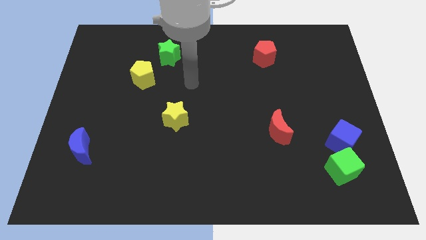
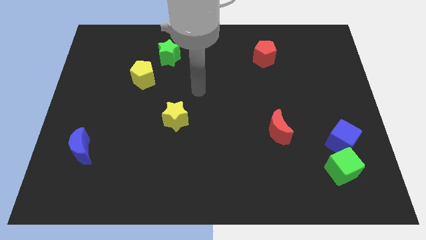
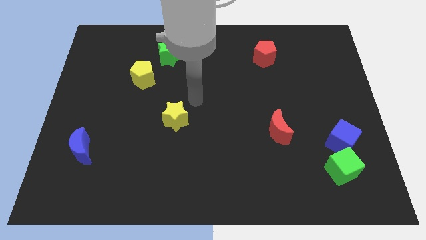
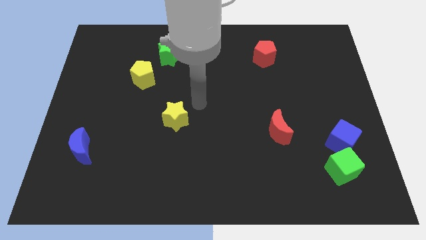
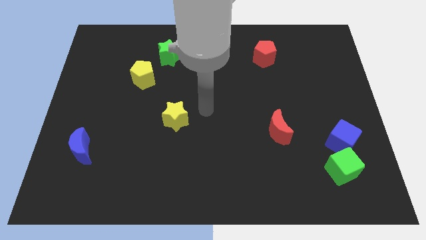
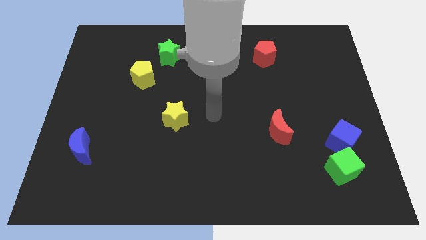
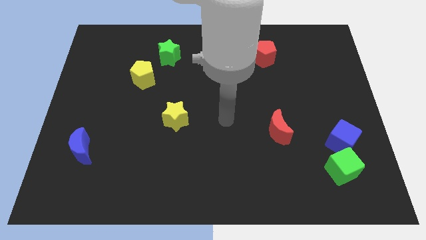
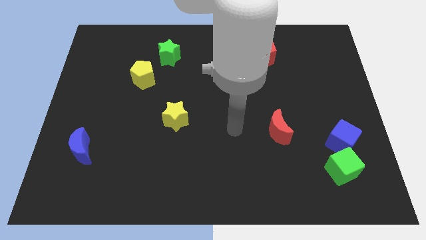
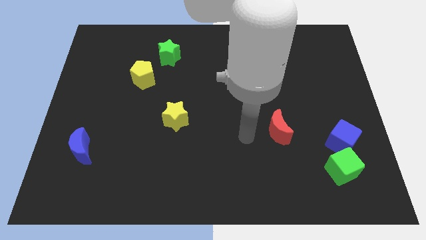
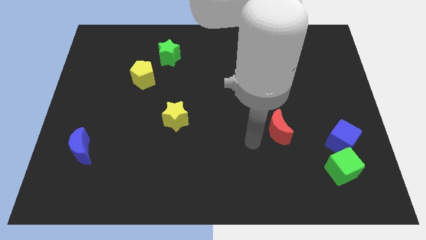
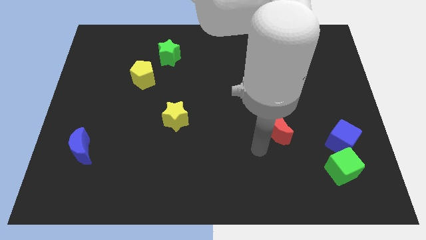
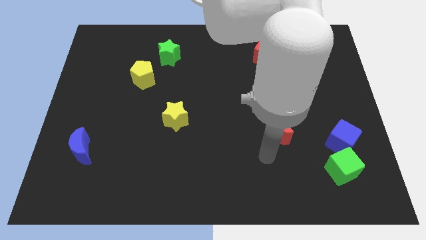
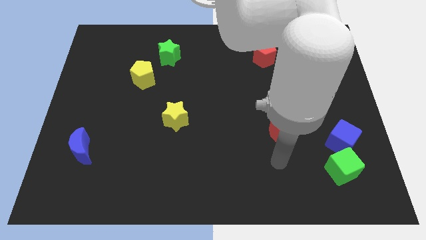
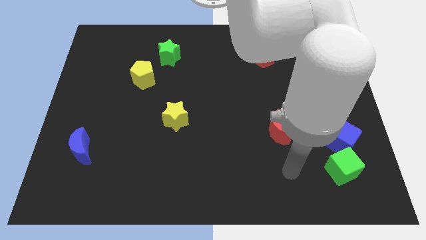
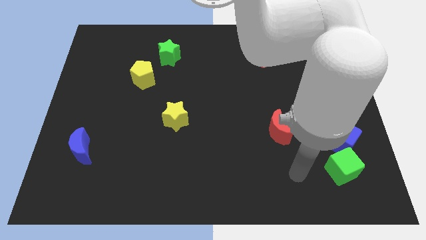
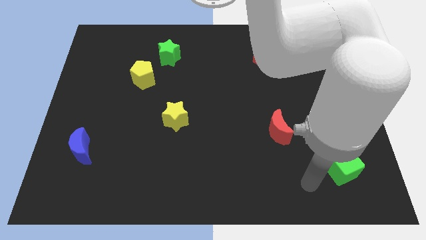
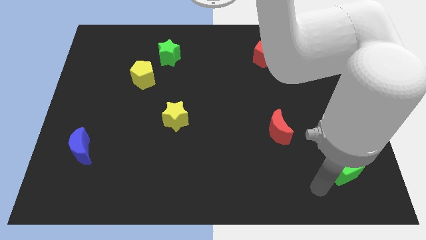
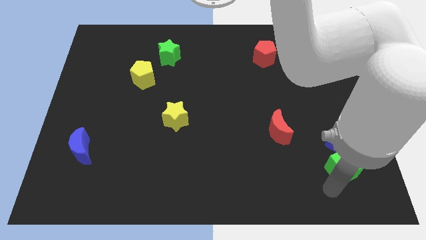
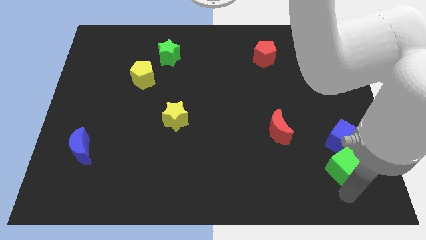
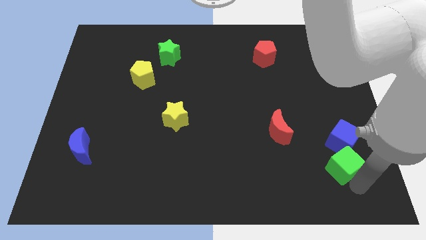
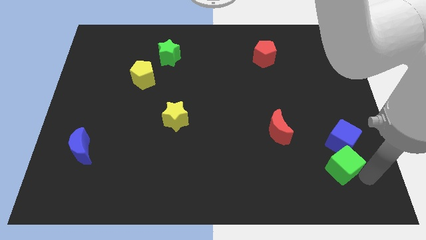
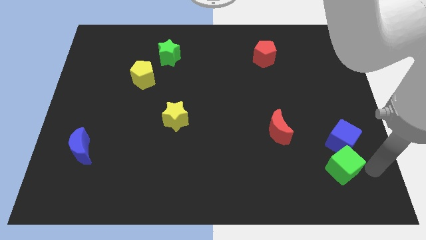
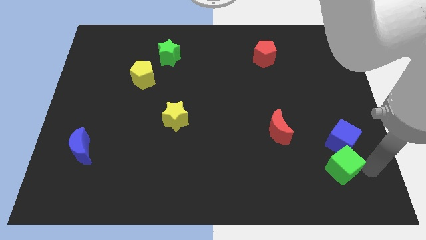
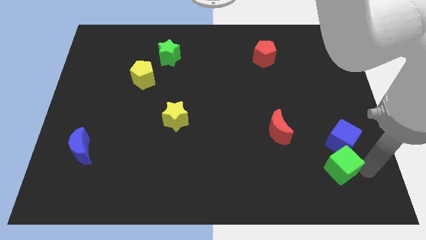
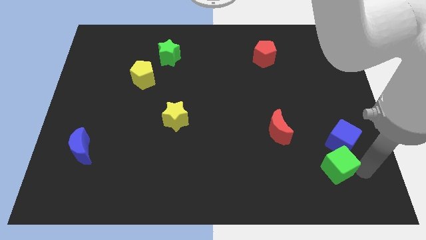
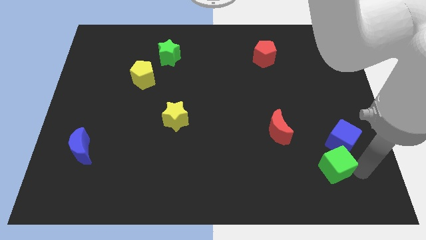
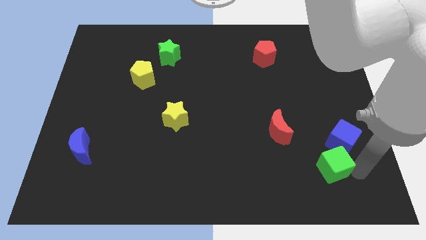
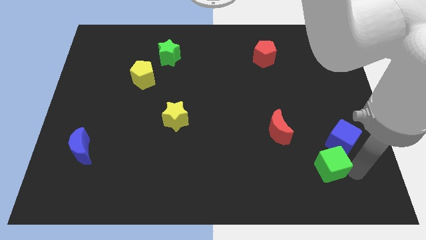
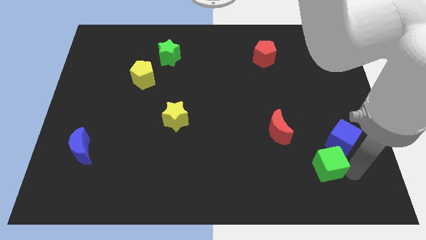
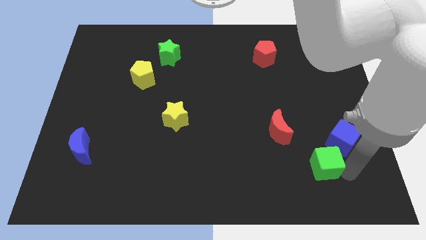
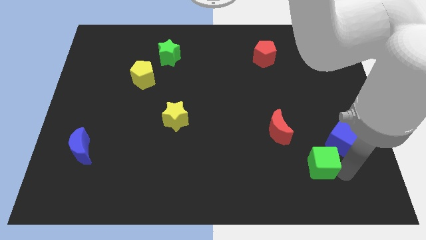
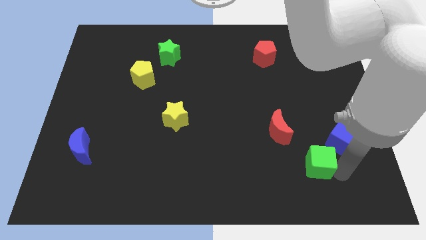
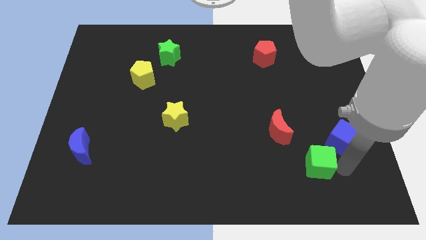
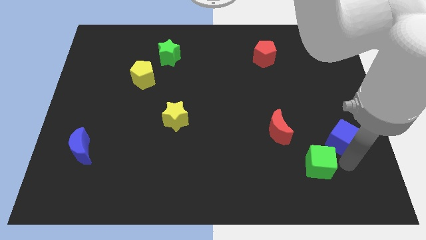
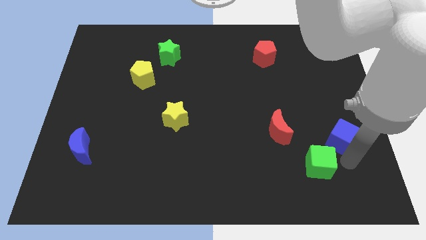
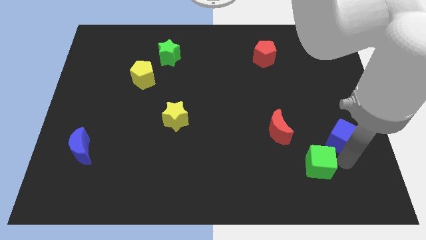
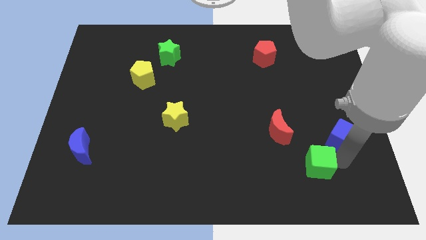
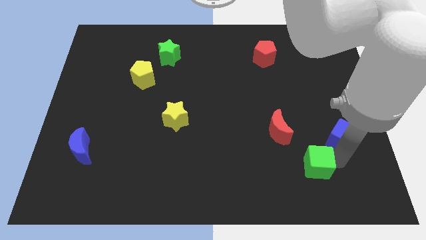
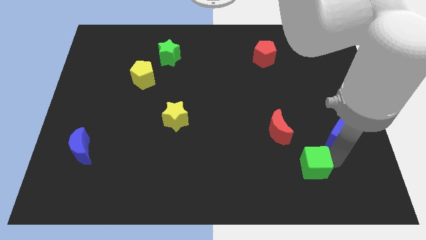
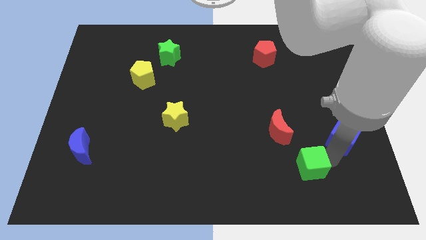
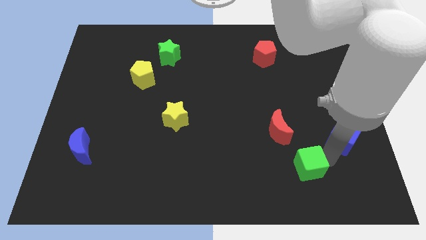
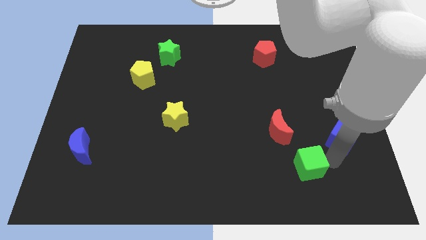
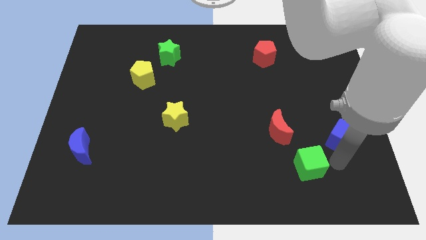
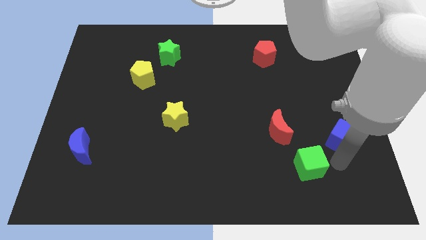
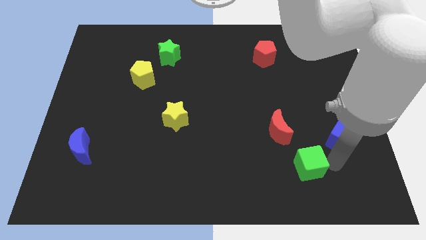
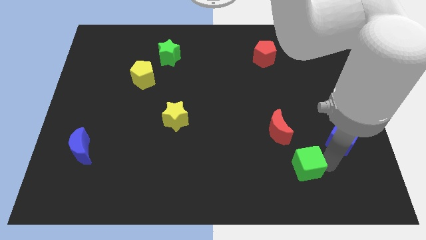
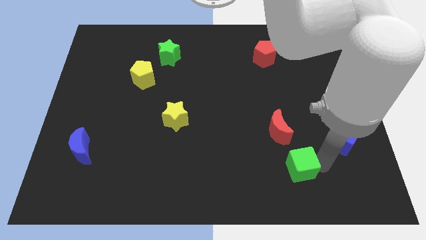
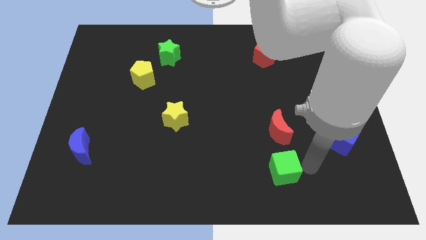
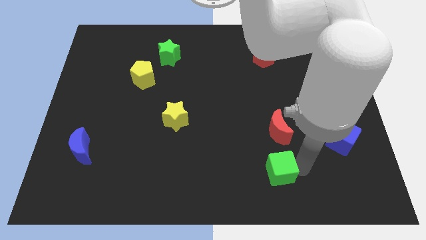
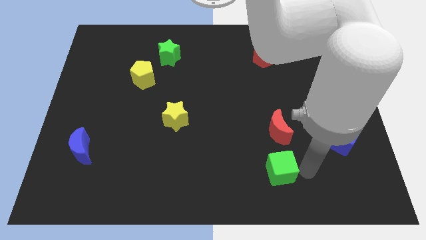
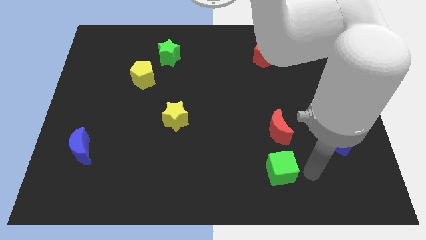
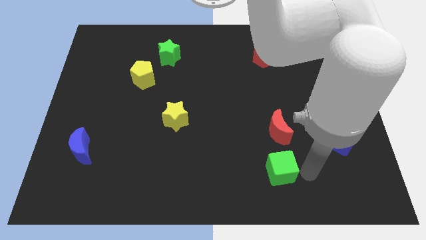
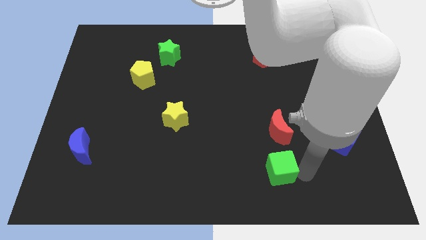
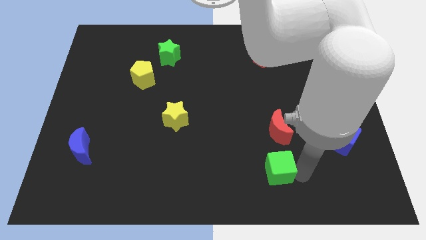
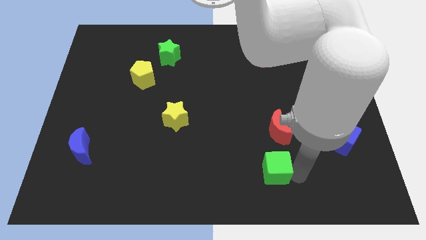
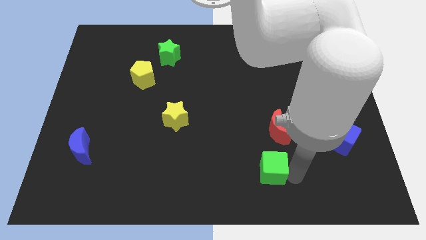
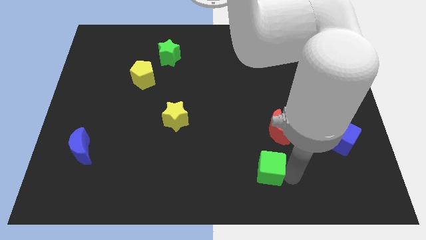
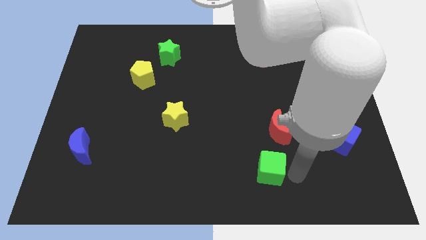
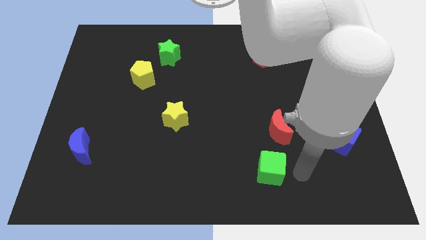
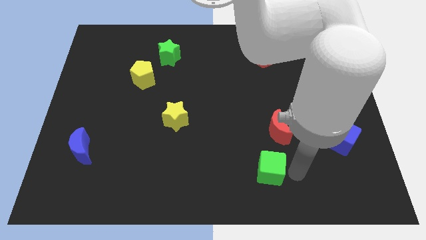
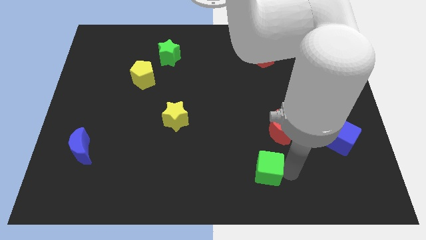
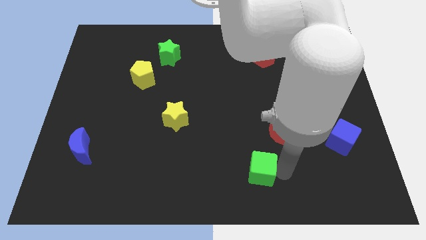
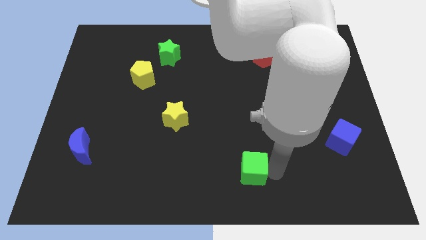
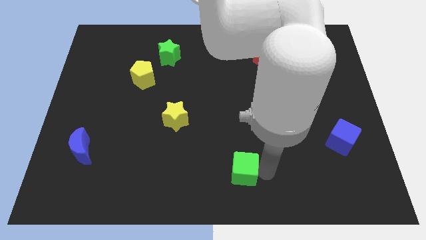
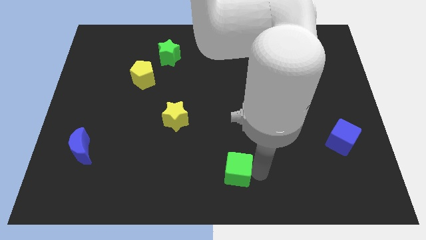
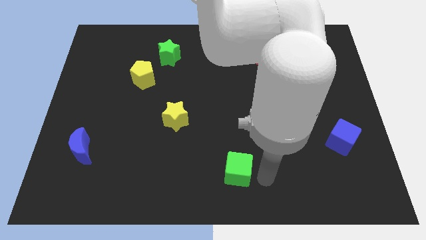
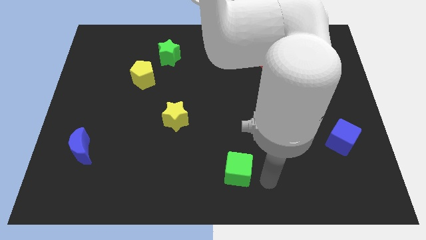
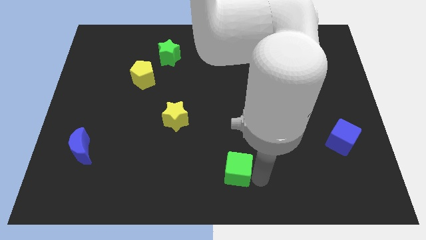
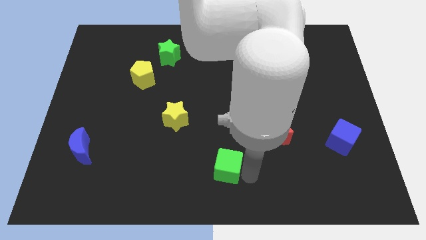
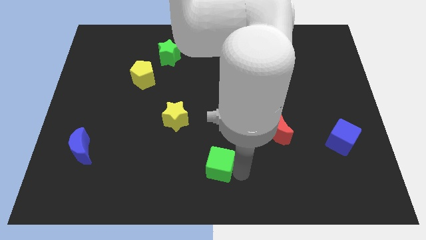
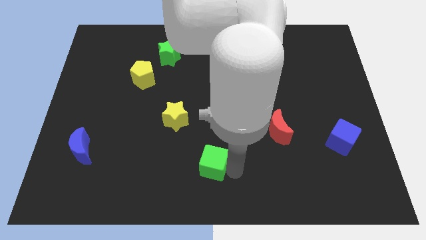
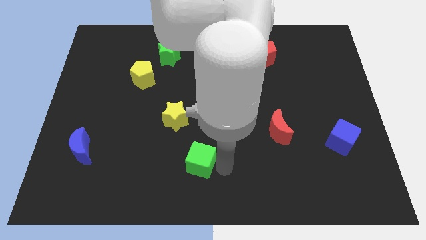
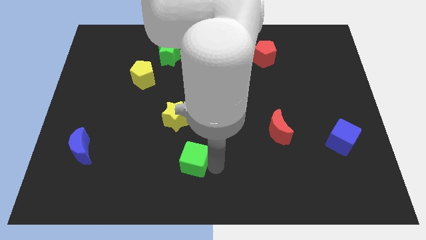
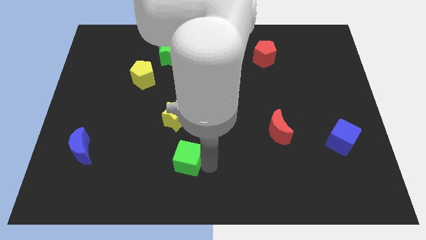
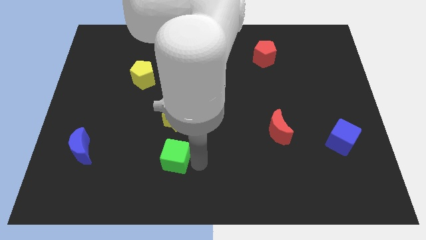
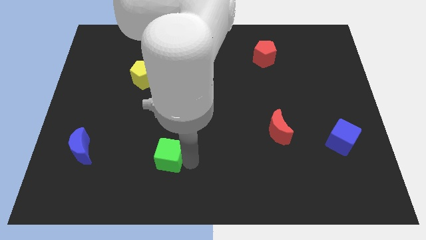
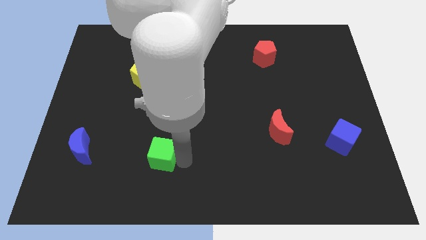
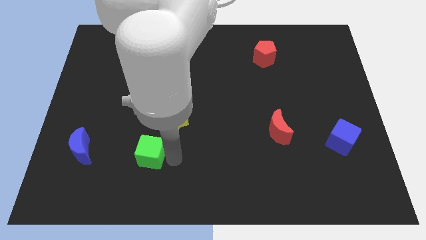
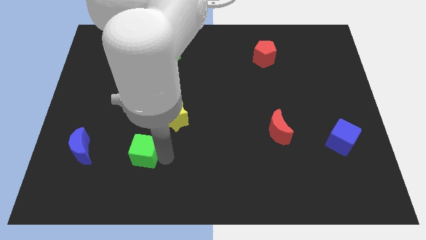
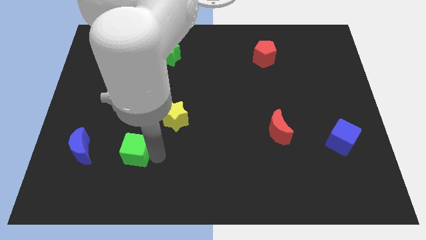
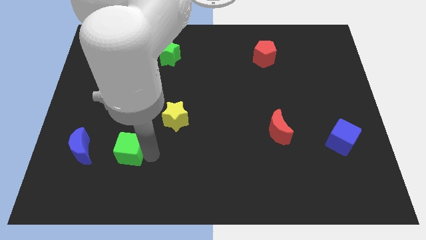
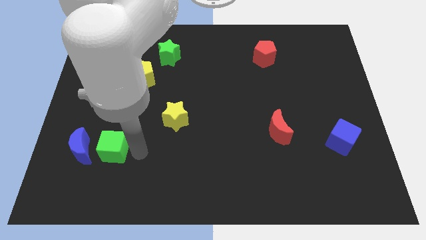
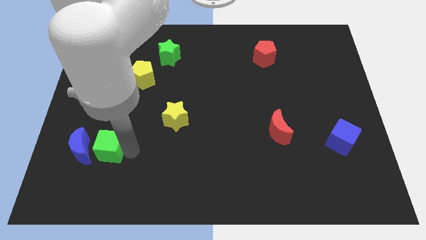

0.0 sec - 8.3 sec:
slide the green cube towards the blue moon
